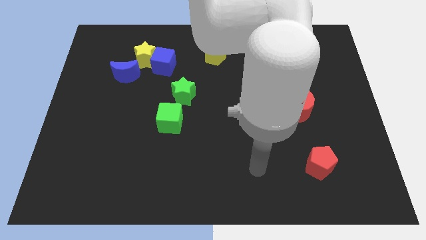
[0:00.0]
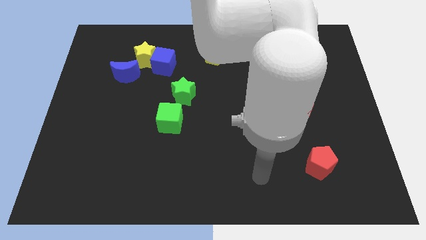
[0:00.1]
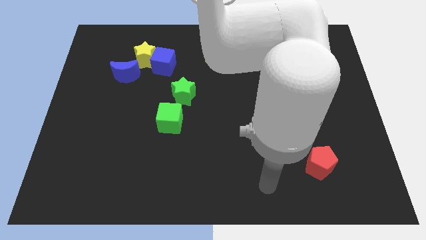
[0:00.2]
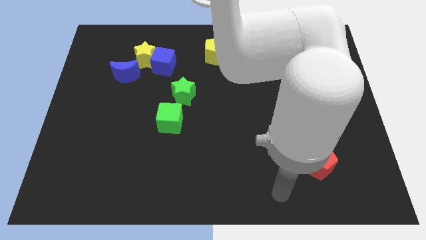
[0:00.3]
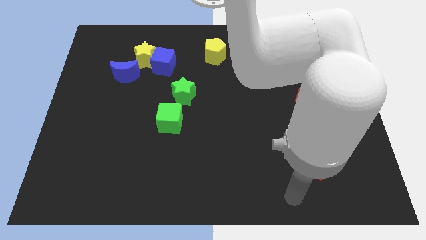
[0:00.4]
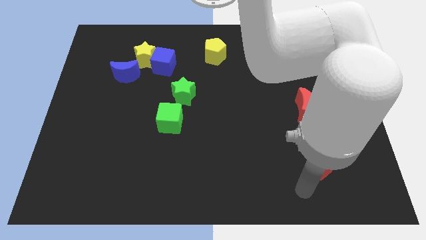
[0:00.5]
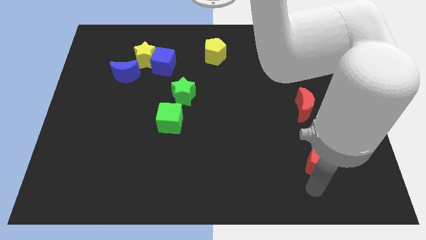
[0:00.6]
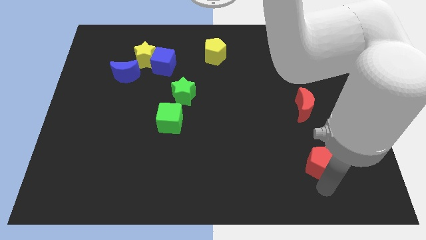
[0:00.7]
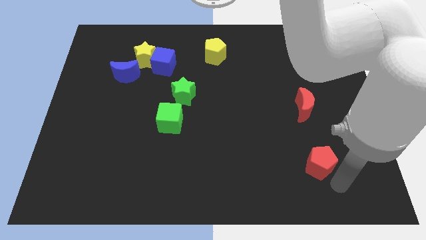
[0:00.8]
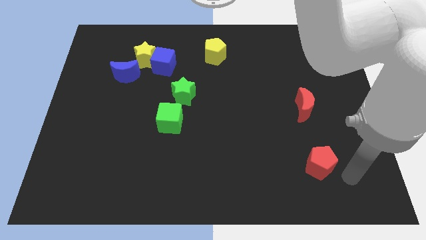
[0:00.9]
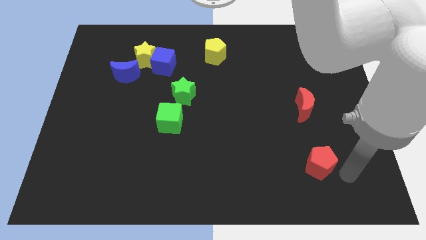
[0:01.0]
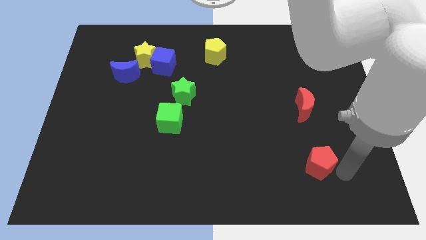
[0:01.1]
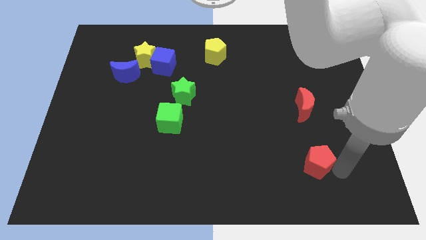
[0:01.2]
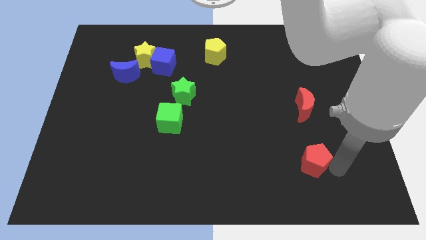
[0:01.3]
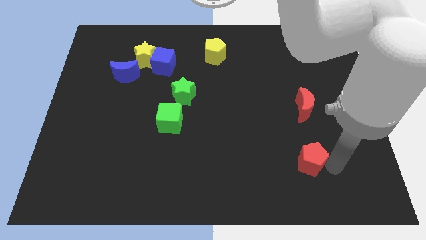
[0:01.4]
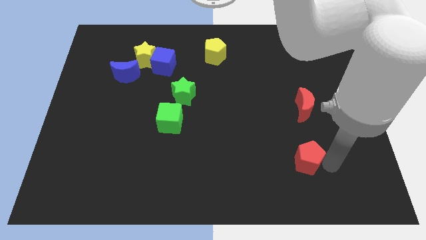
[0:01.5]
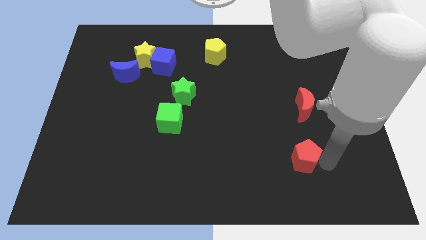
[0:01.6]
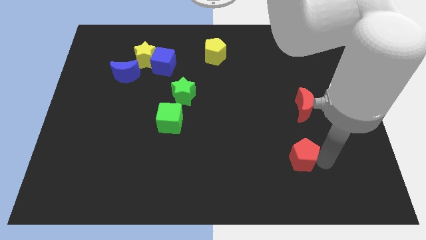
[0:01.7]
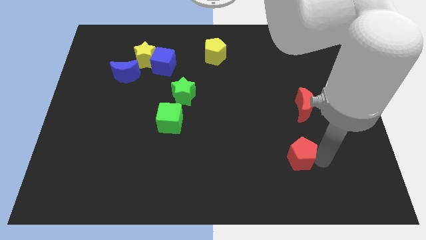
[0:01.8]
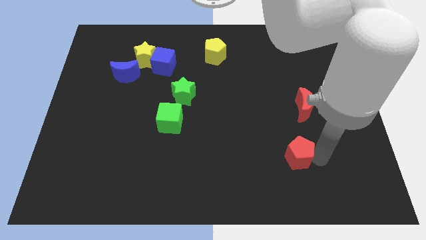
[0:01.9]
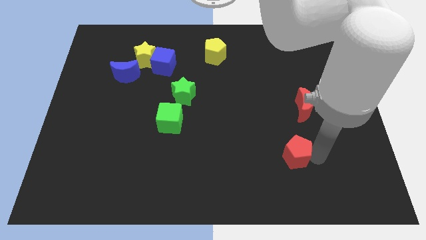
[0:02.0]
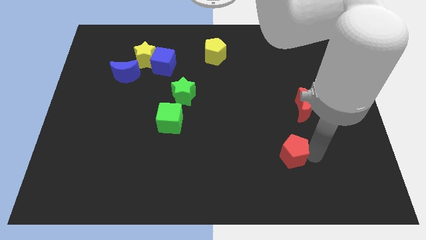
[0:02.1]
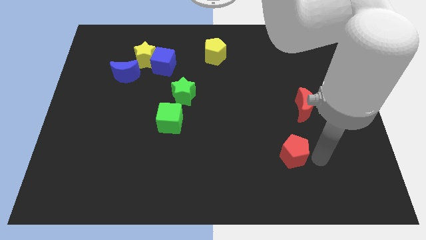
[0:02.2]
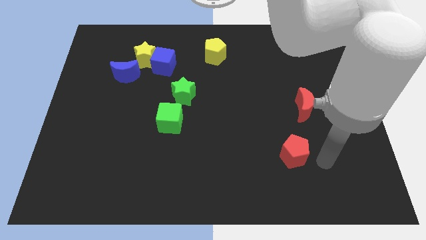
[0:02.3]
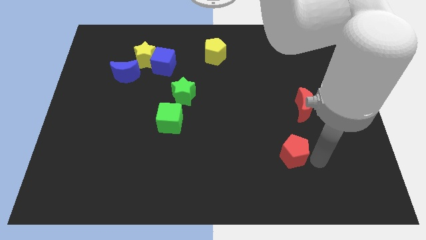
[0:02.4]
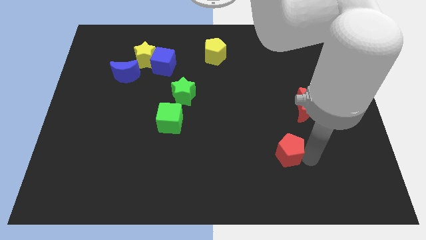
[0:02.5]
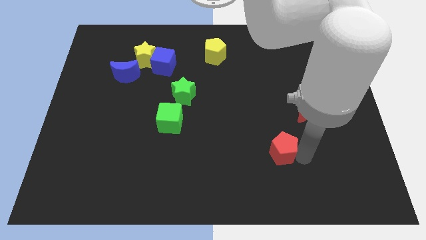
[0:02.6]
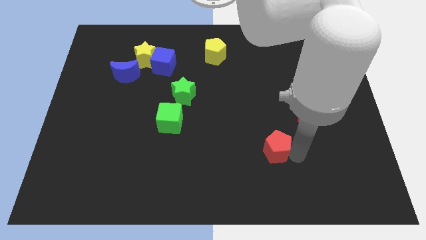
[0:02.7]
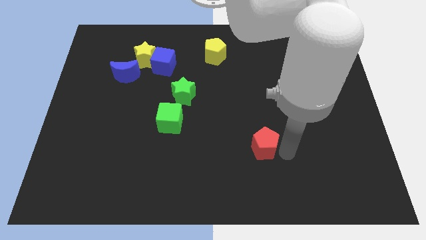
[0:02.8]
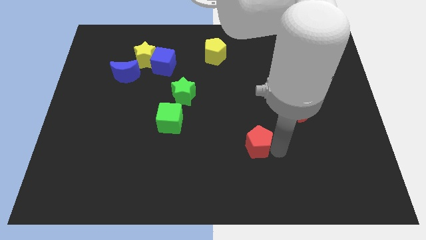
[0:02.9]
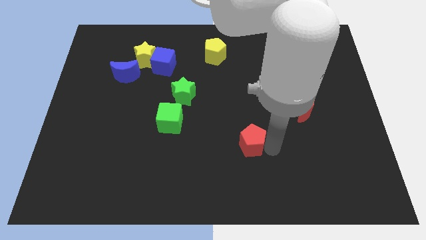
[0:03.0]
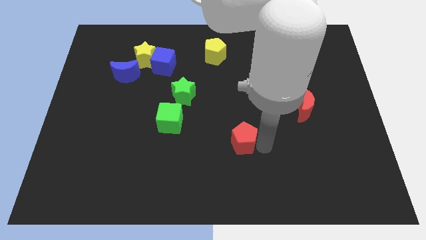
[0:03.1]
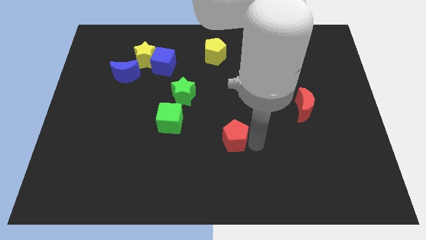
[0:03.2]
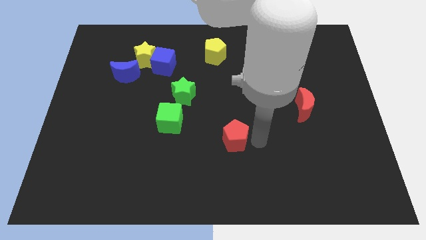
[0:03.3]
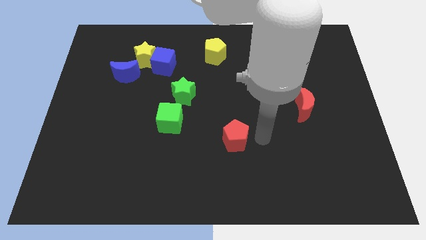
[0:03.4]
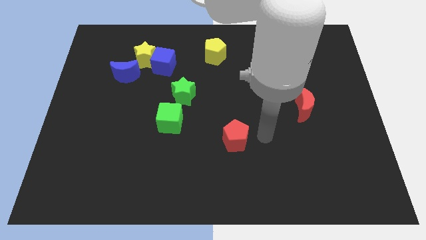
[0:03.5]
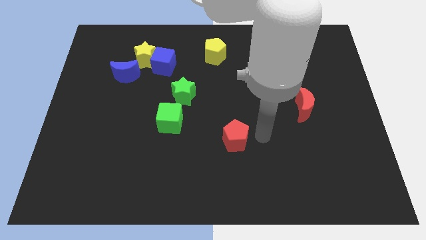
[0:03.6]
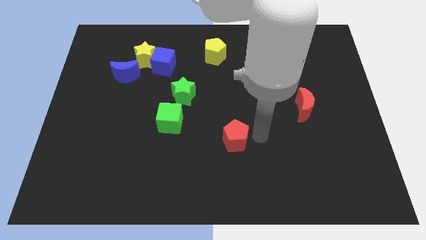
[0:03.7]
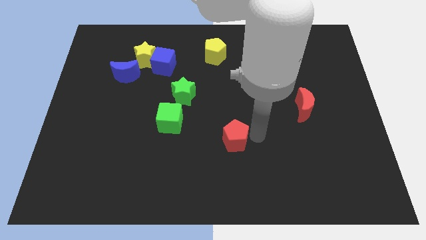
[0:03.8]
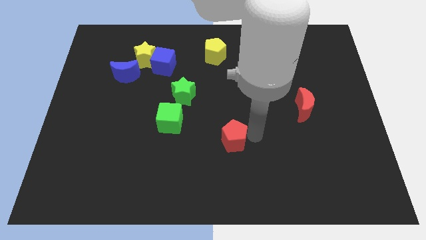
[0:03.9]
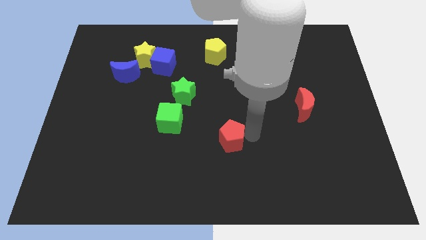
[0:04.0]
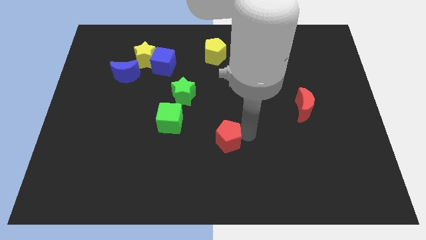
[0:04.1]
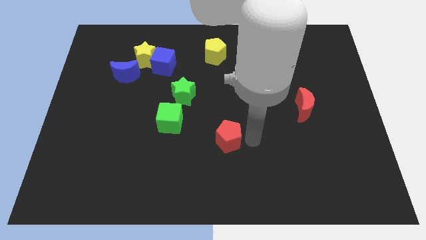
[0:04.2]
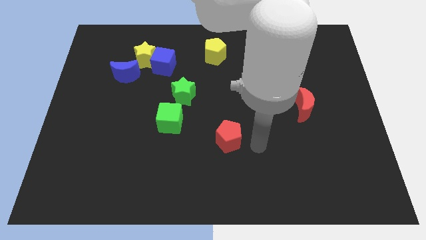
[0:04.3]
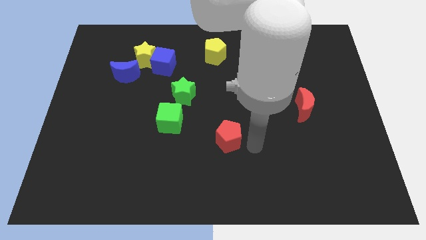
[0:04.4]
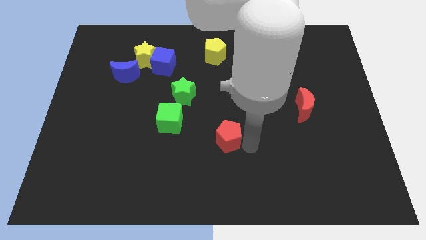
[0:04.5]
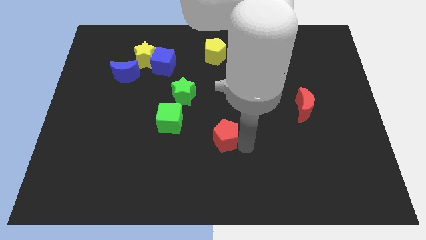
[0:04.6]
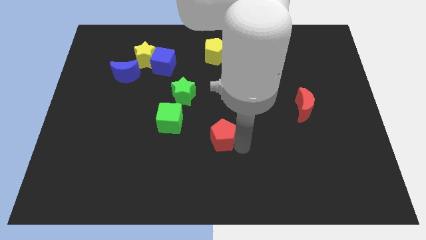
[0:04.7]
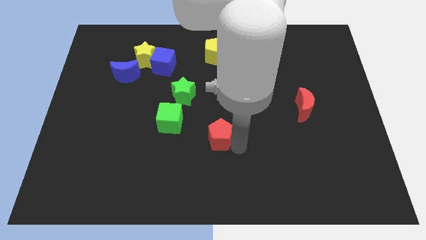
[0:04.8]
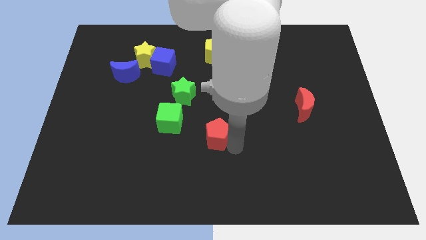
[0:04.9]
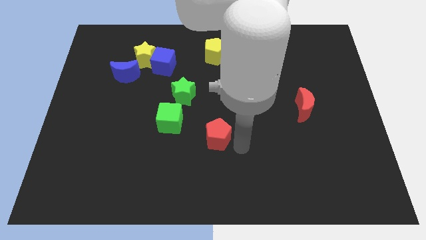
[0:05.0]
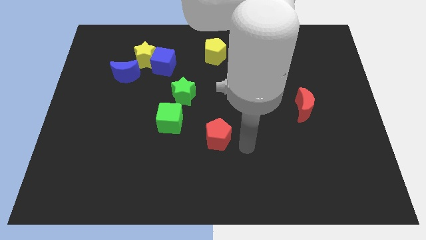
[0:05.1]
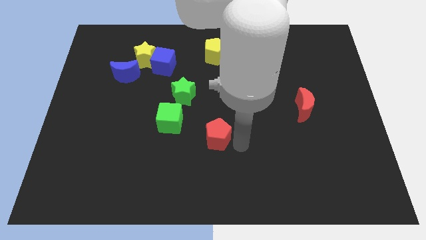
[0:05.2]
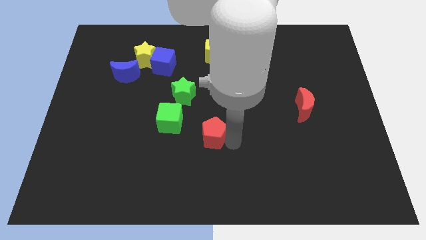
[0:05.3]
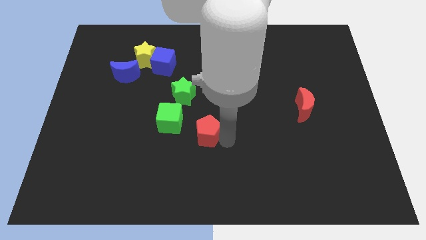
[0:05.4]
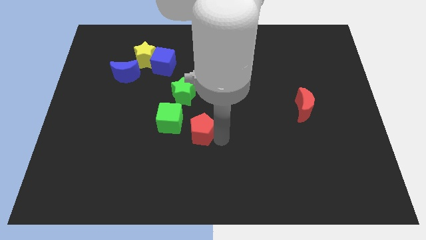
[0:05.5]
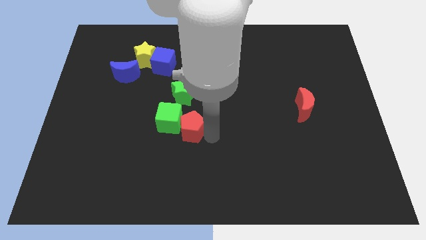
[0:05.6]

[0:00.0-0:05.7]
slide the red pentagon close to the green cube

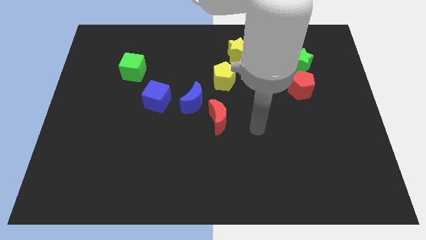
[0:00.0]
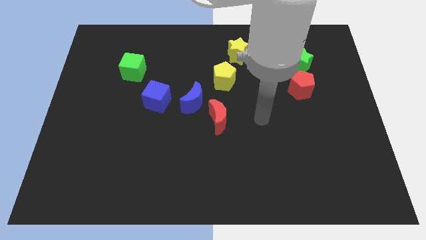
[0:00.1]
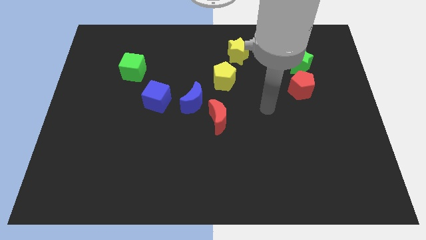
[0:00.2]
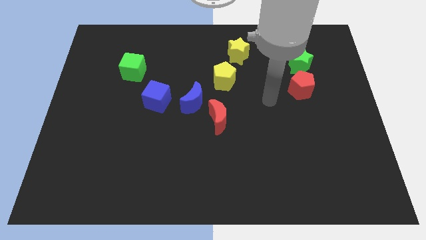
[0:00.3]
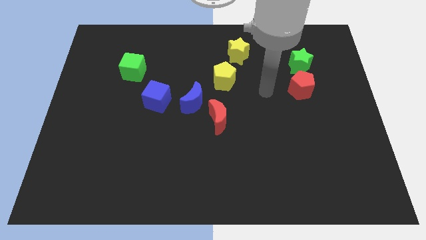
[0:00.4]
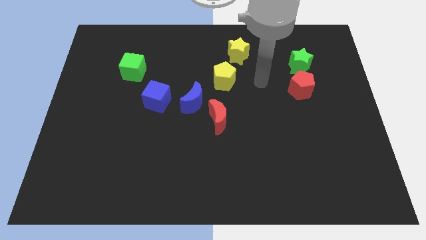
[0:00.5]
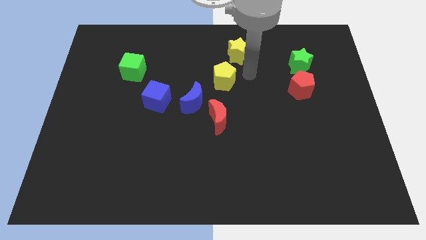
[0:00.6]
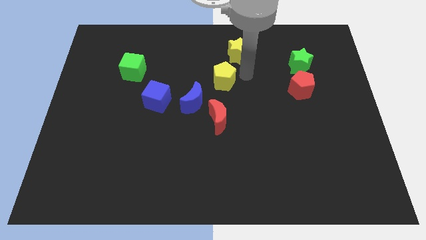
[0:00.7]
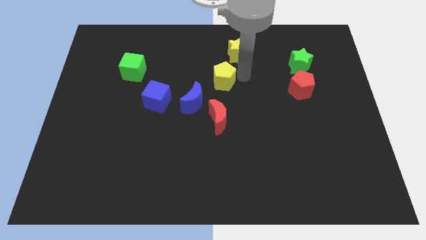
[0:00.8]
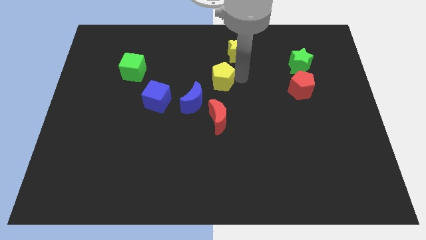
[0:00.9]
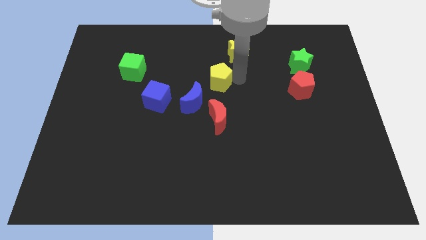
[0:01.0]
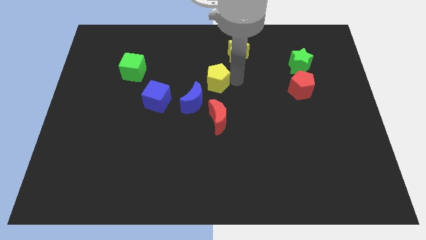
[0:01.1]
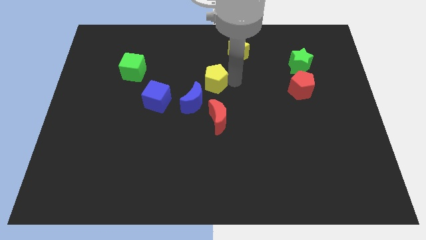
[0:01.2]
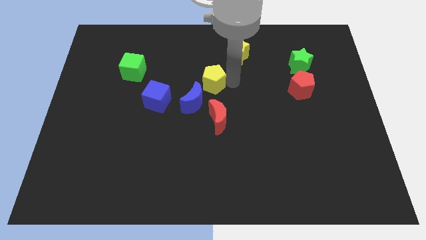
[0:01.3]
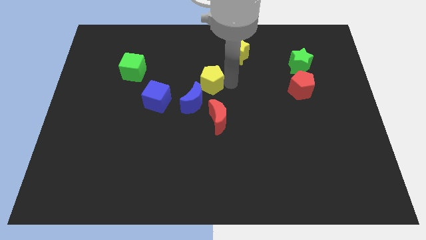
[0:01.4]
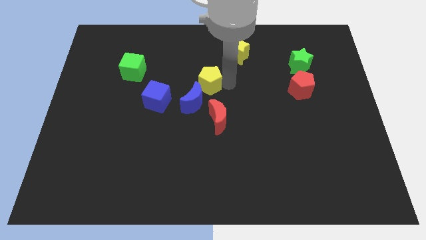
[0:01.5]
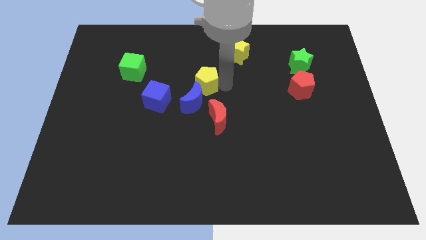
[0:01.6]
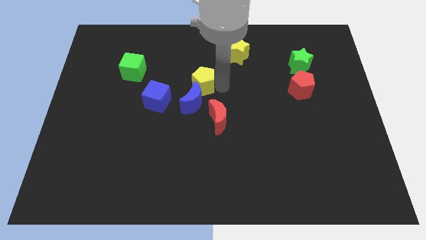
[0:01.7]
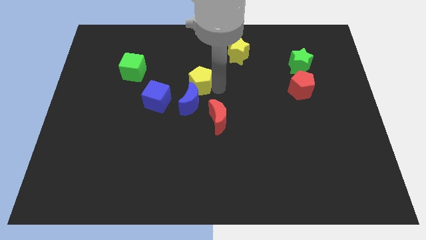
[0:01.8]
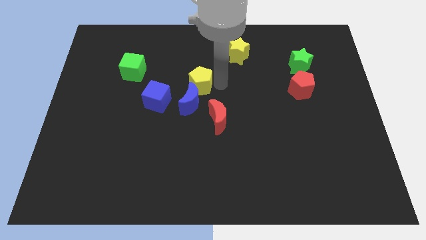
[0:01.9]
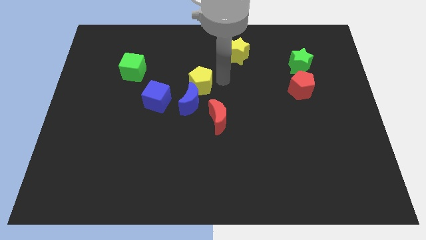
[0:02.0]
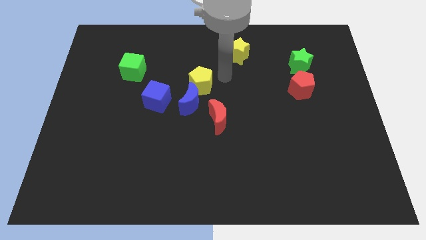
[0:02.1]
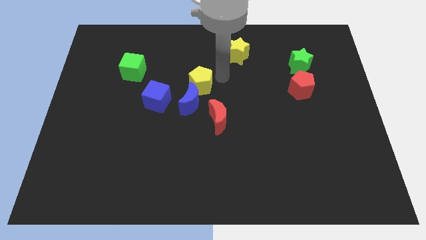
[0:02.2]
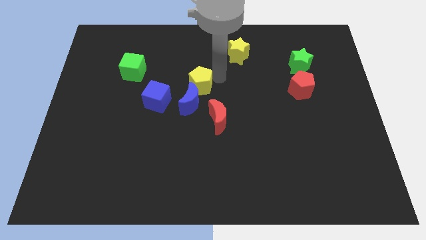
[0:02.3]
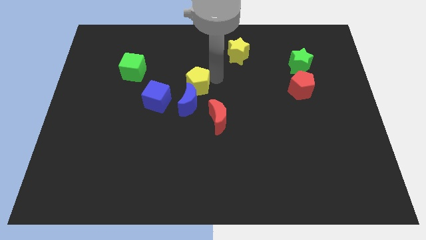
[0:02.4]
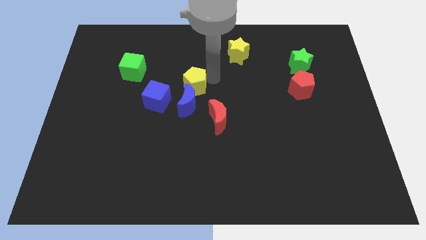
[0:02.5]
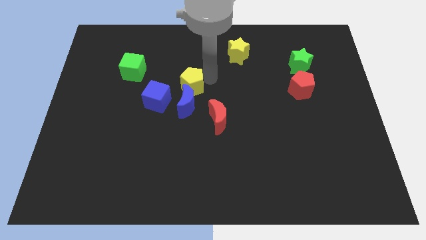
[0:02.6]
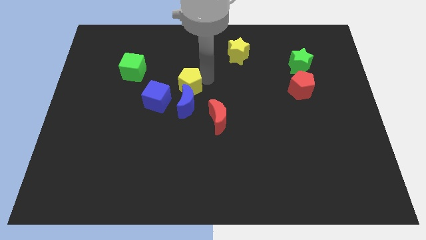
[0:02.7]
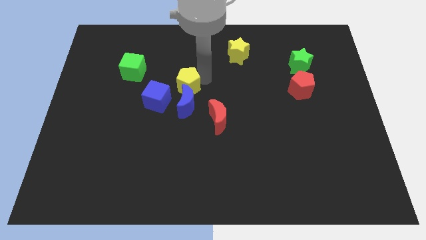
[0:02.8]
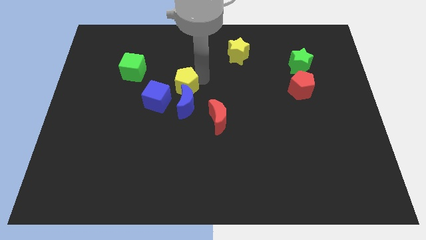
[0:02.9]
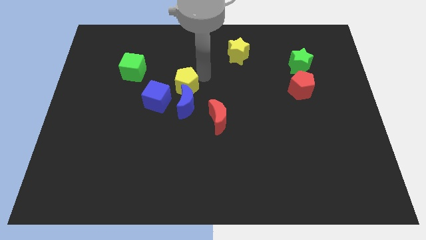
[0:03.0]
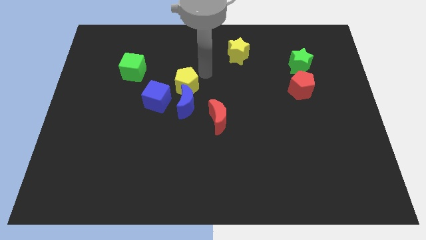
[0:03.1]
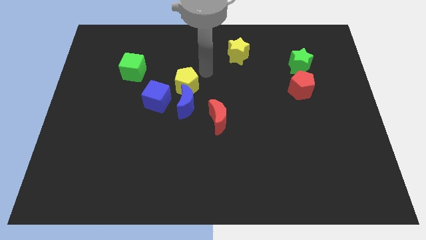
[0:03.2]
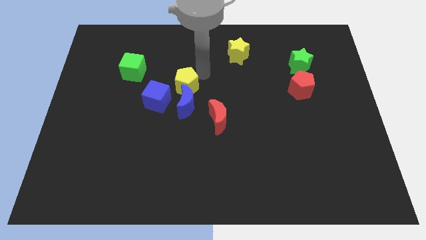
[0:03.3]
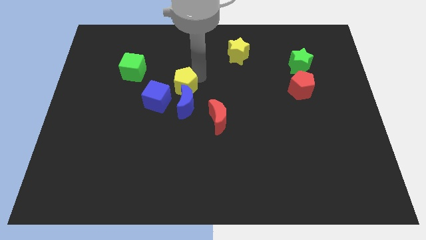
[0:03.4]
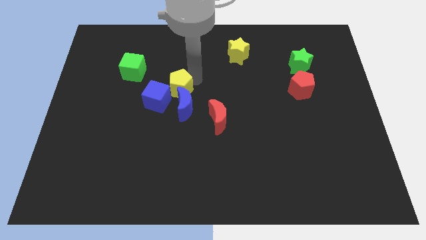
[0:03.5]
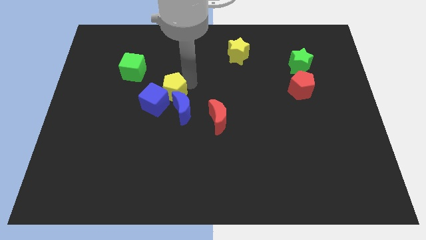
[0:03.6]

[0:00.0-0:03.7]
put the yellow pentagon to the blue cube
